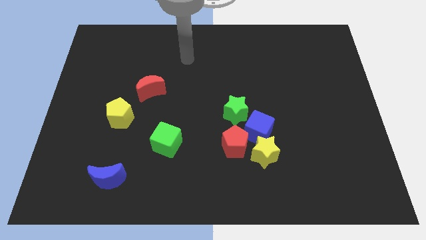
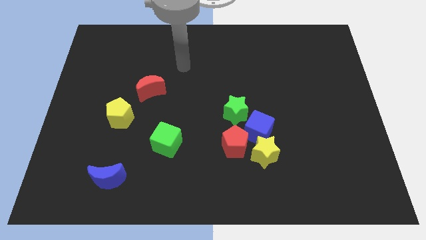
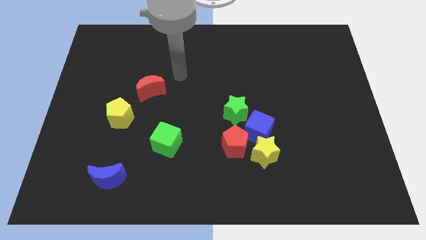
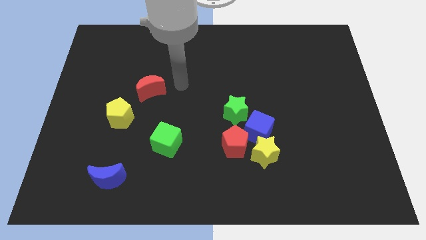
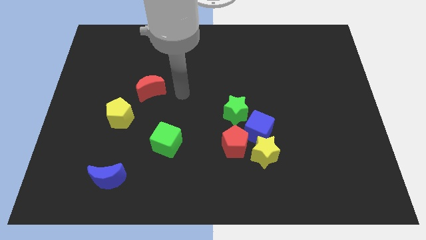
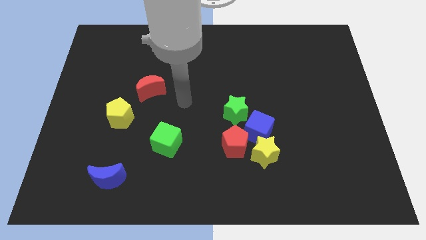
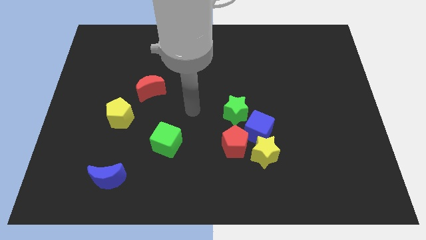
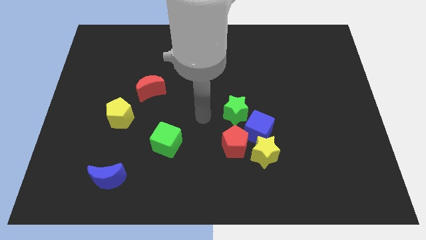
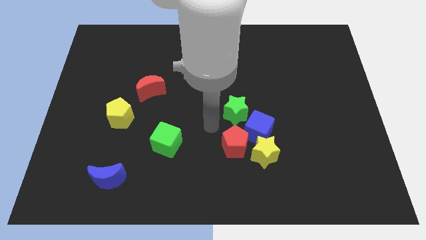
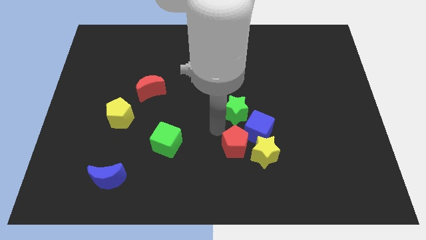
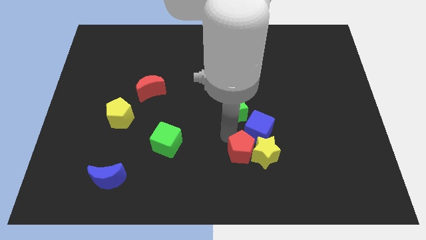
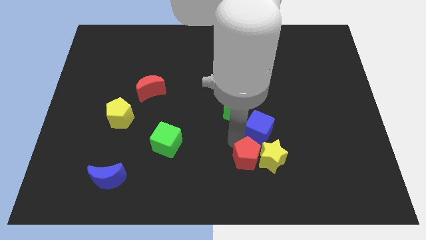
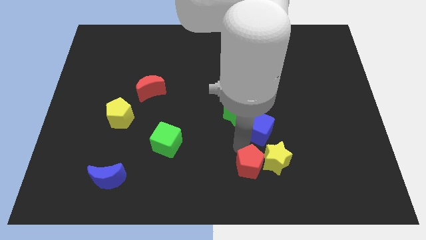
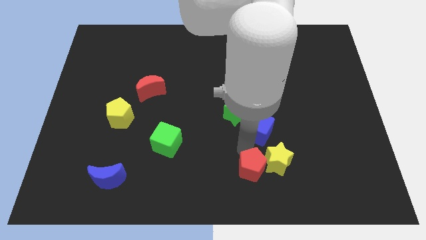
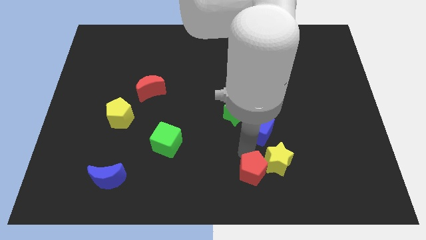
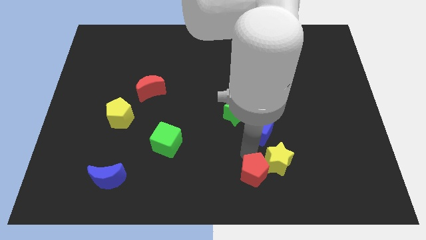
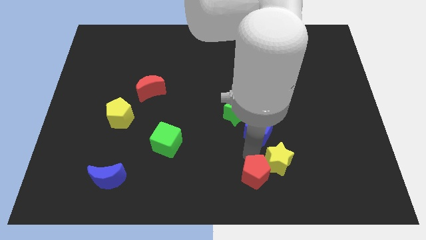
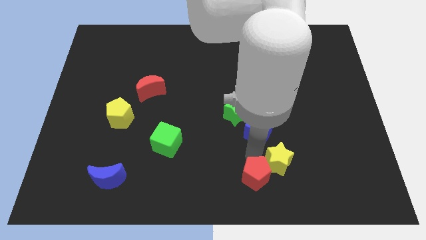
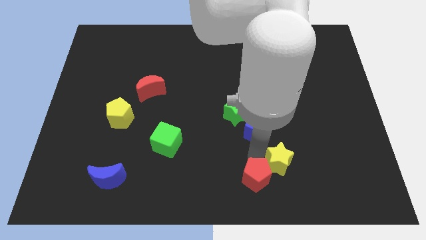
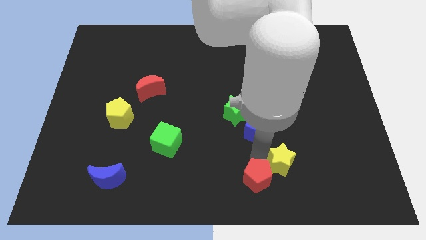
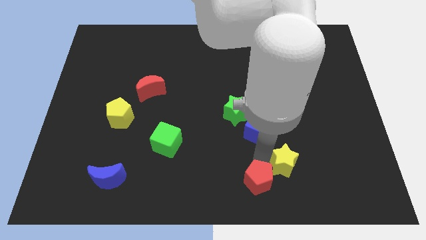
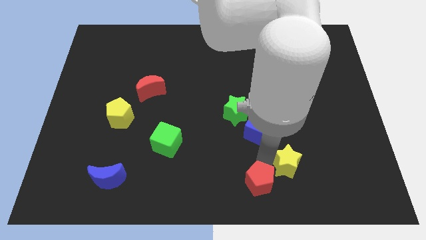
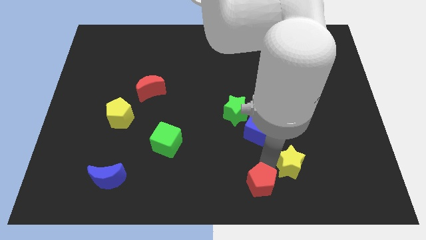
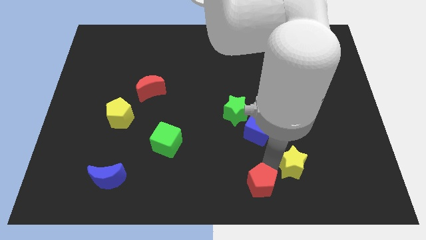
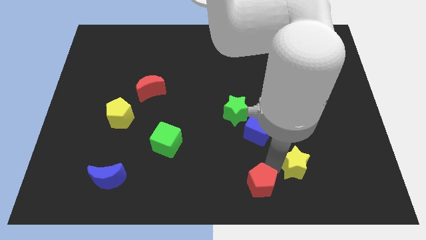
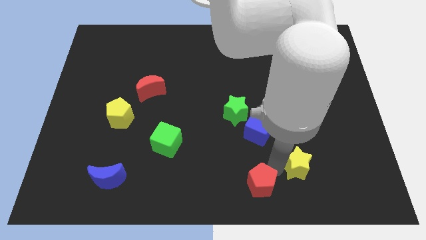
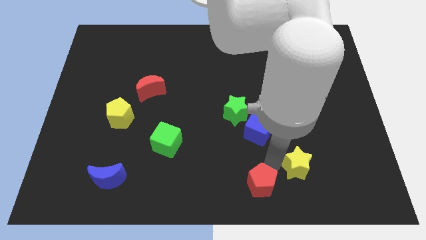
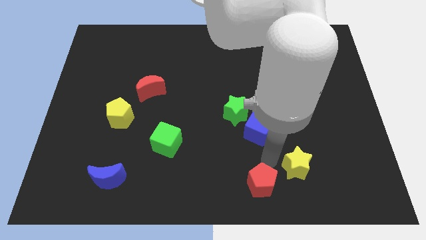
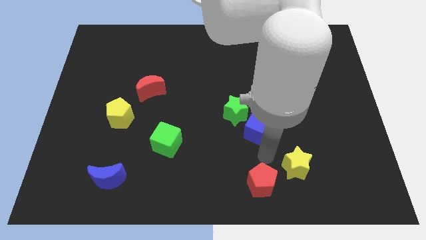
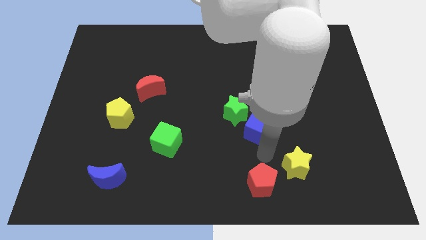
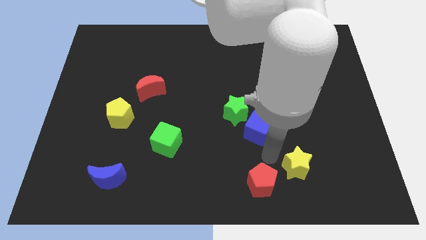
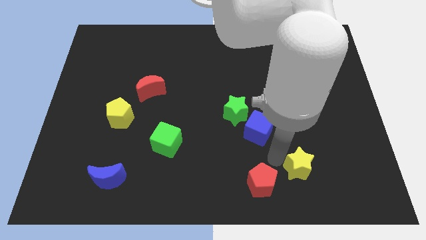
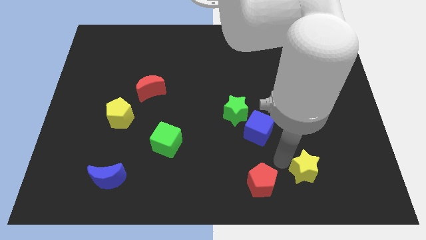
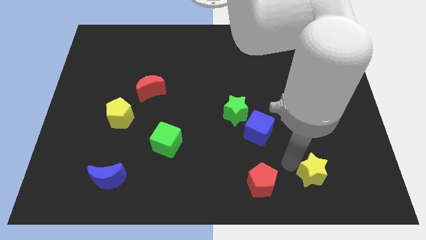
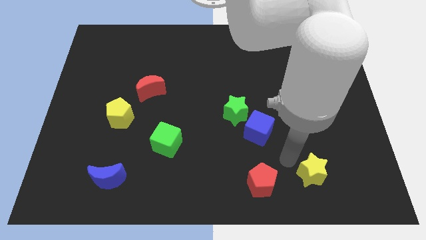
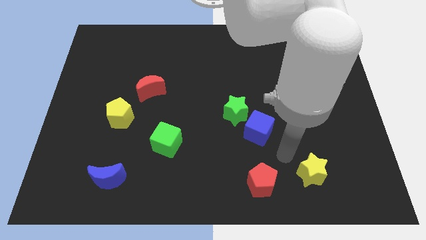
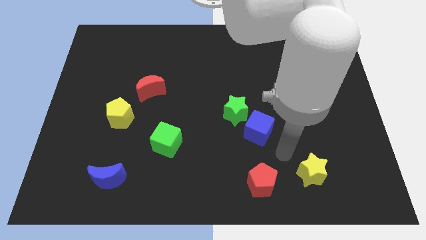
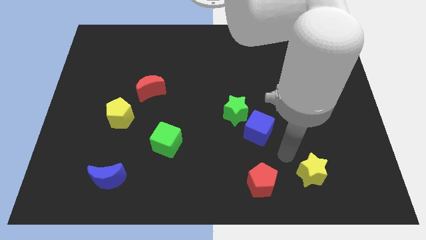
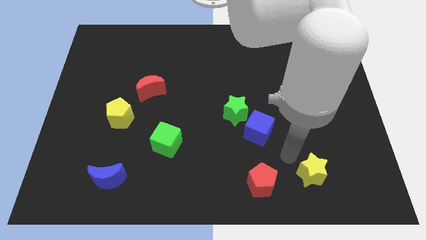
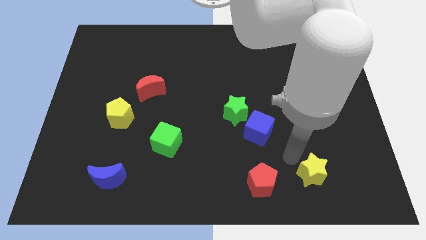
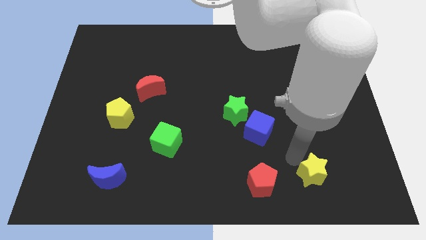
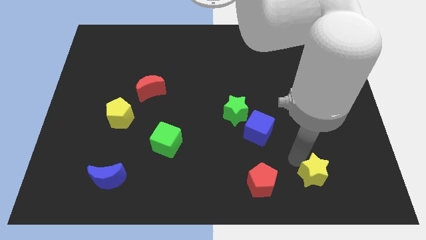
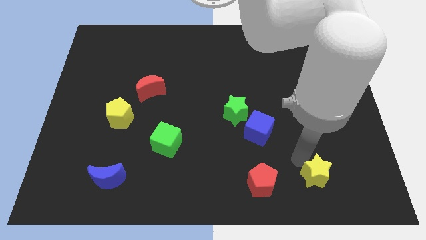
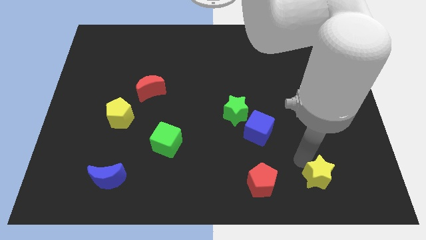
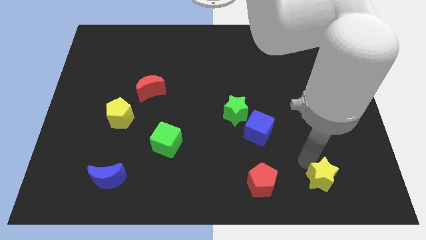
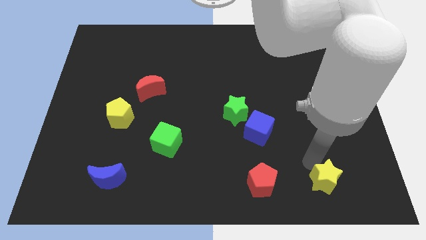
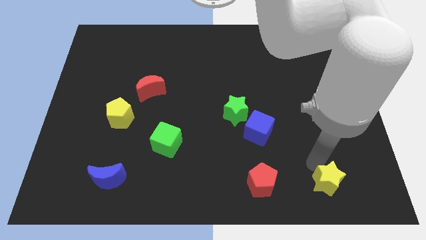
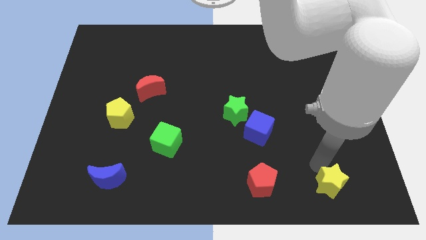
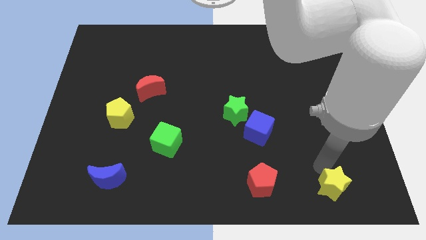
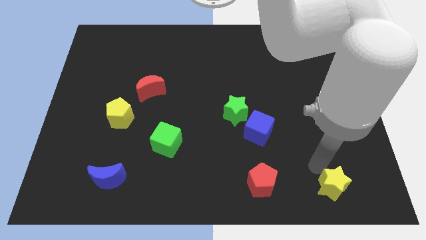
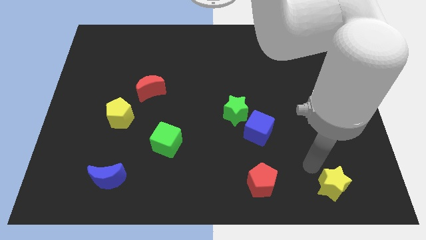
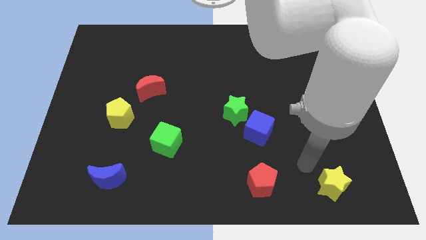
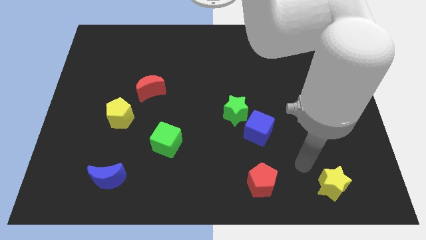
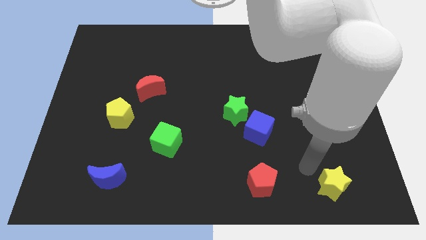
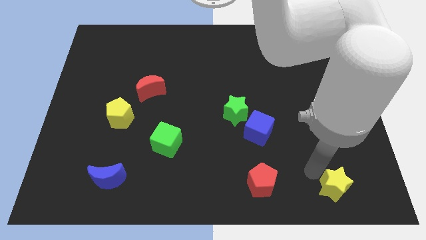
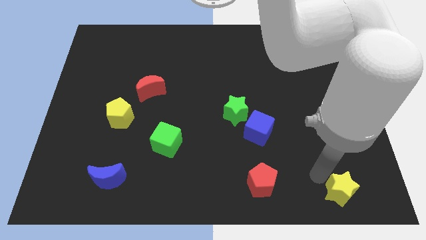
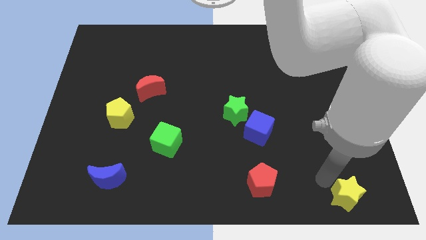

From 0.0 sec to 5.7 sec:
slide the yellow star to the bottom right corner

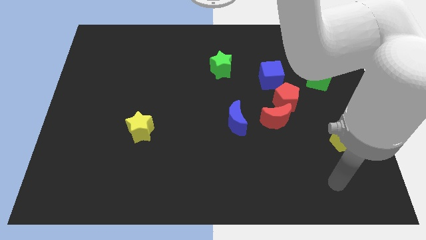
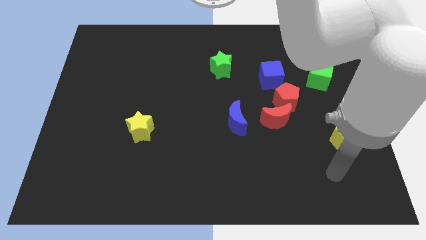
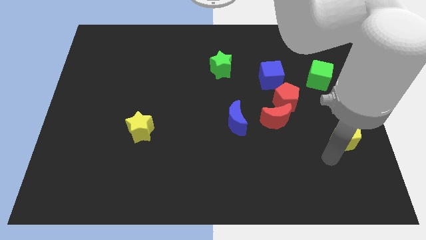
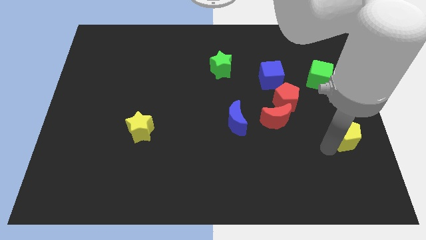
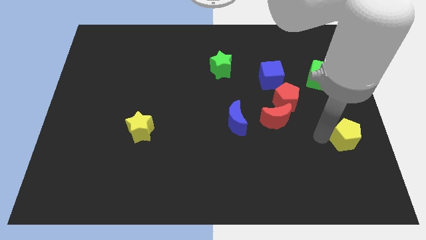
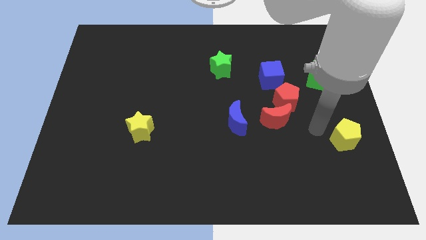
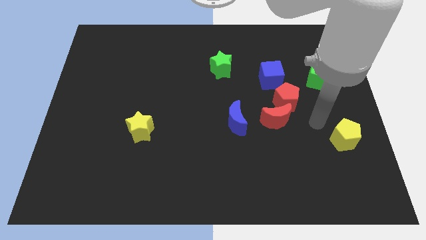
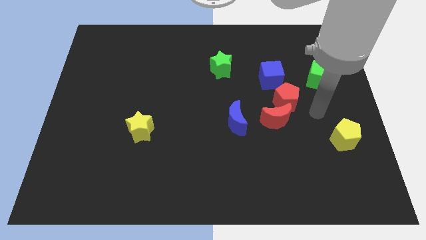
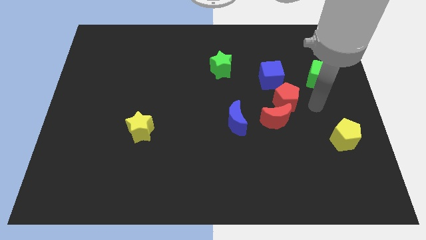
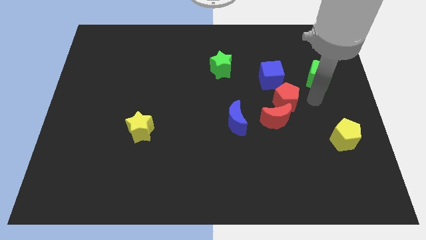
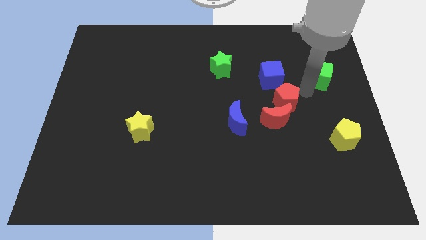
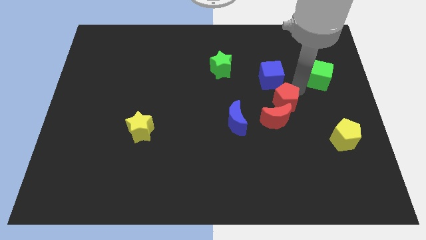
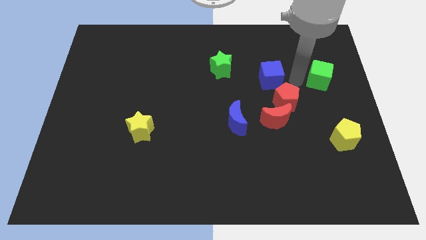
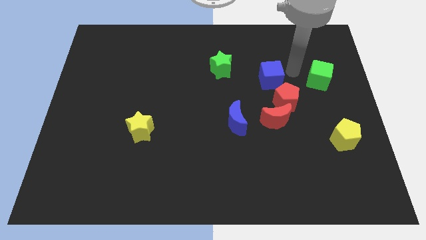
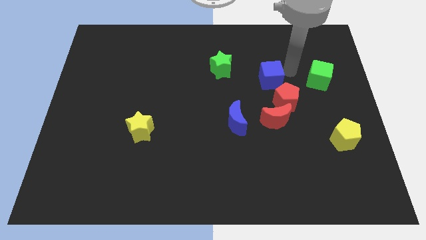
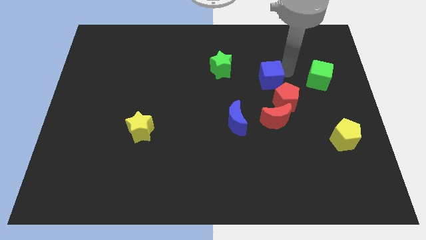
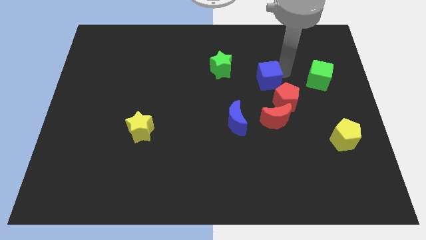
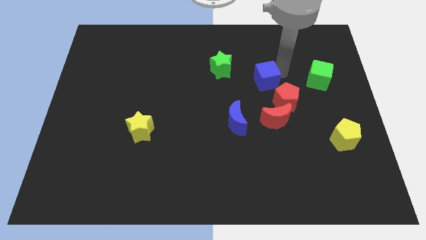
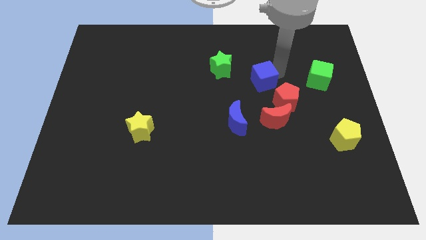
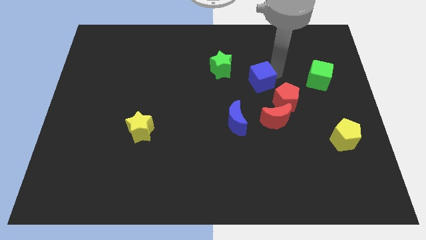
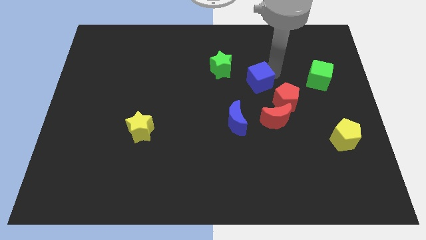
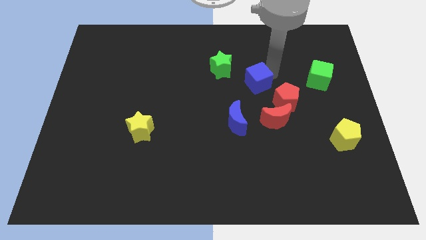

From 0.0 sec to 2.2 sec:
slide the blue cube to the middle of the board
